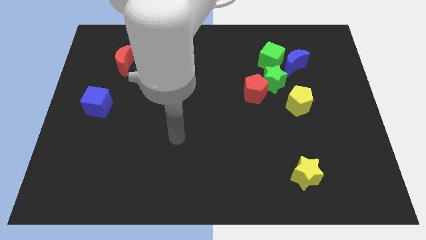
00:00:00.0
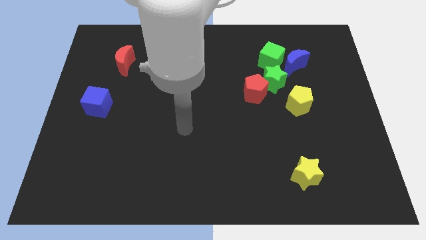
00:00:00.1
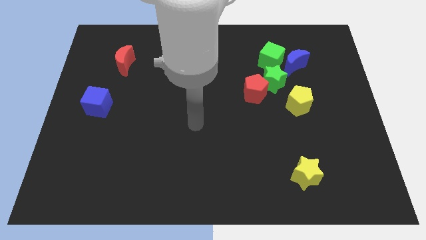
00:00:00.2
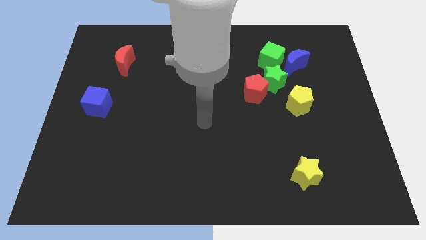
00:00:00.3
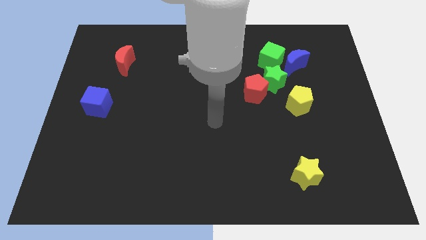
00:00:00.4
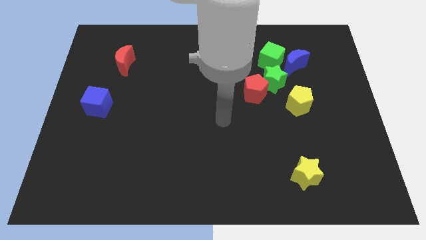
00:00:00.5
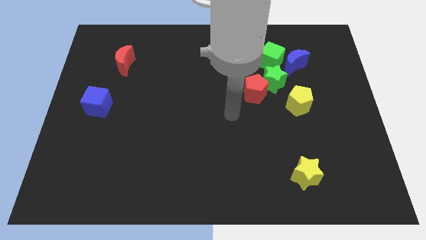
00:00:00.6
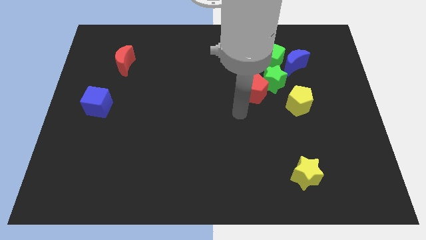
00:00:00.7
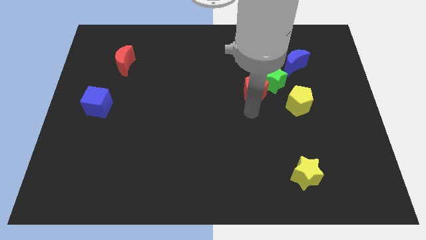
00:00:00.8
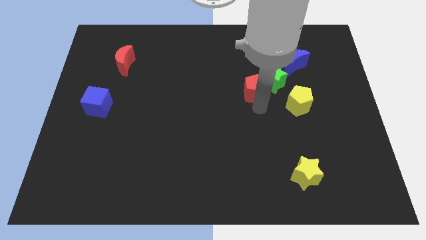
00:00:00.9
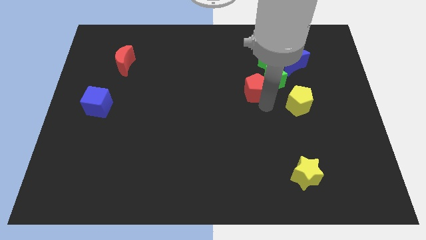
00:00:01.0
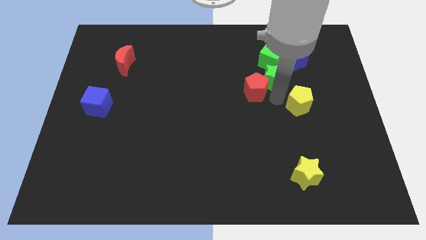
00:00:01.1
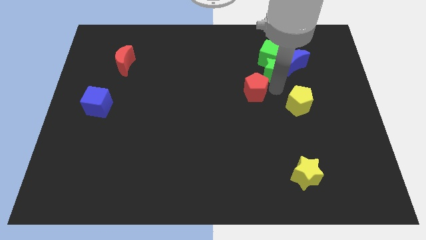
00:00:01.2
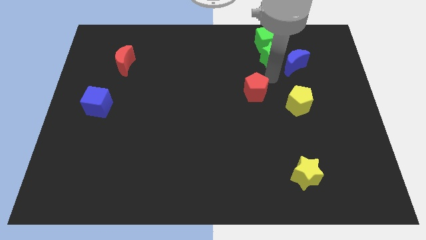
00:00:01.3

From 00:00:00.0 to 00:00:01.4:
pull the red pentagon apart from the green star

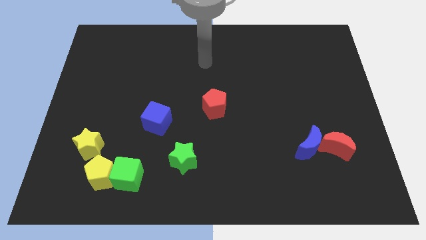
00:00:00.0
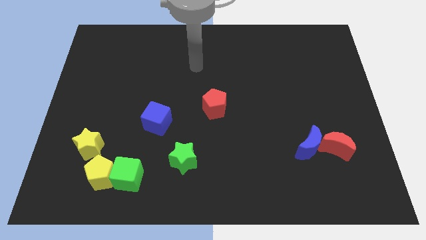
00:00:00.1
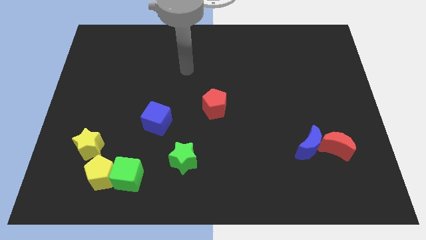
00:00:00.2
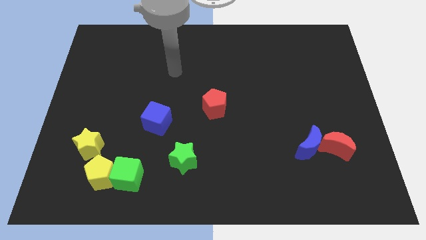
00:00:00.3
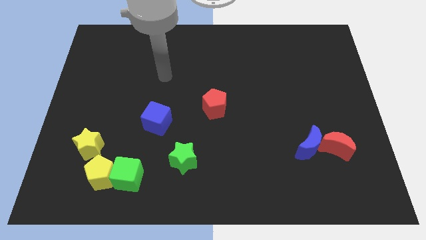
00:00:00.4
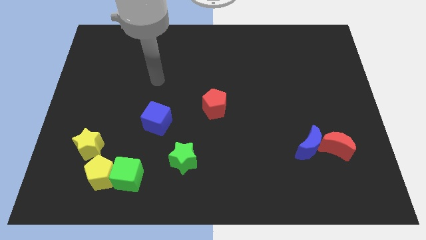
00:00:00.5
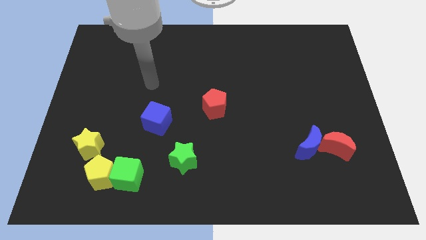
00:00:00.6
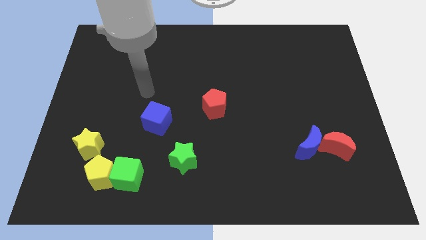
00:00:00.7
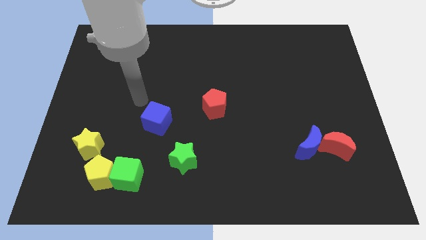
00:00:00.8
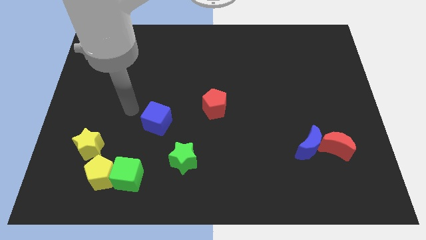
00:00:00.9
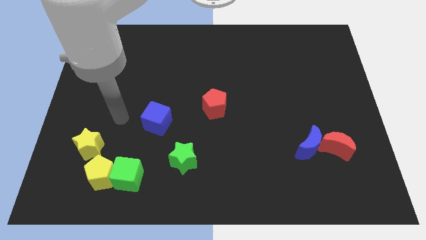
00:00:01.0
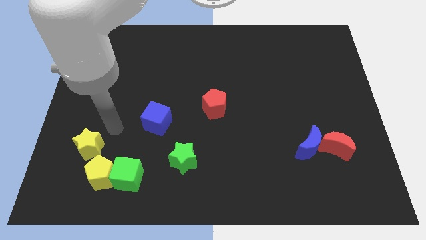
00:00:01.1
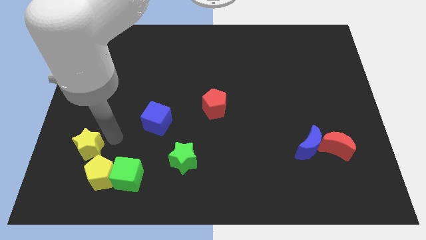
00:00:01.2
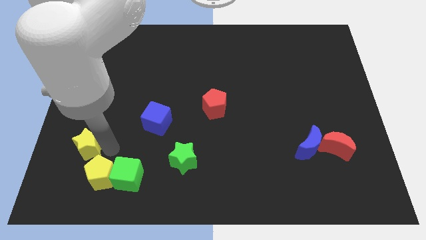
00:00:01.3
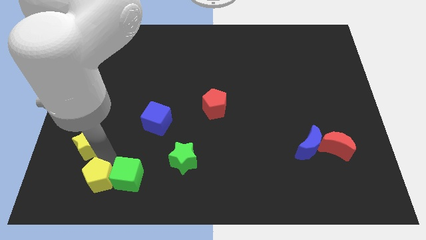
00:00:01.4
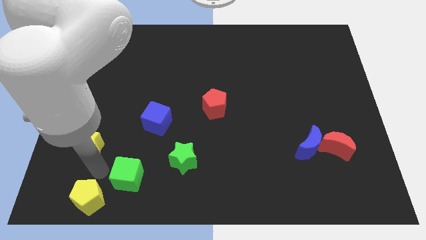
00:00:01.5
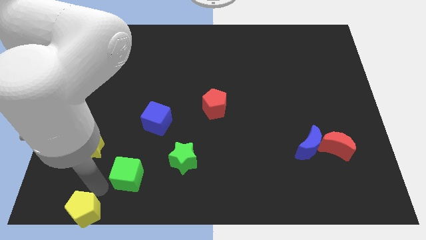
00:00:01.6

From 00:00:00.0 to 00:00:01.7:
pull the green cube apart from the yellow pentagon

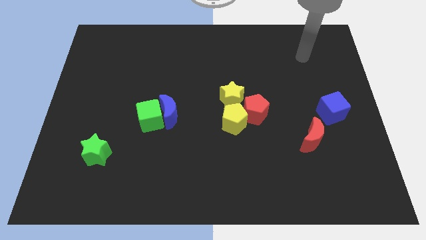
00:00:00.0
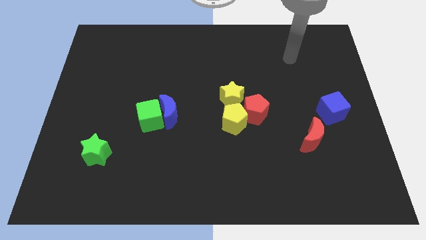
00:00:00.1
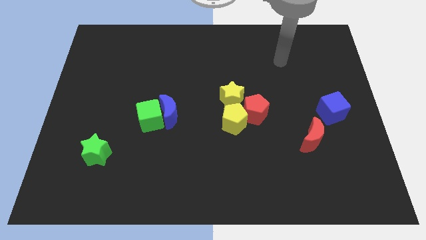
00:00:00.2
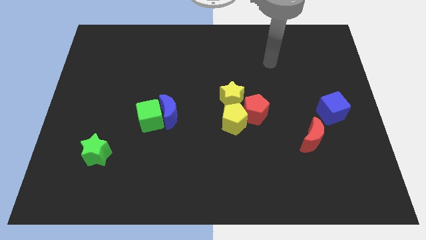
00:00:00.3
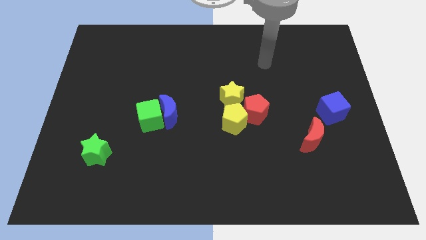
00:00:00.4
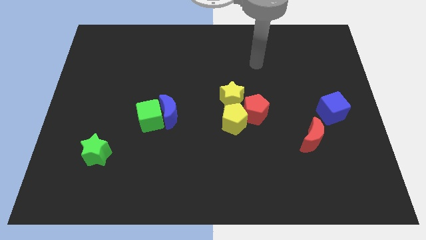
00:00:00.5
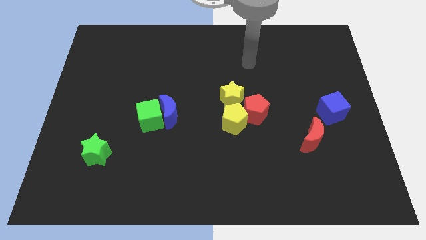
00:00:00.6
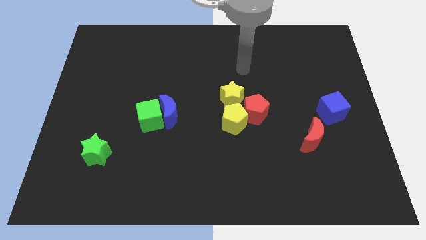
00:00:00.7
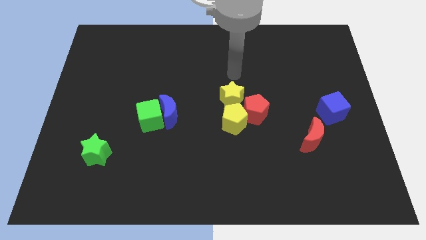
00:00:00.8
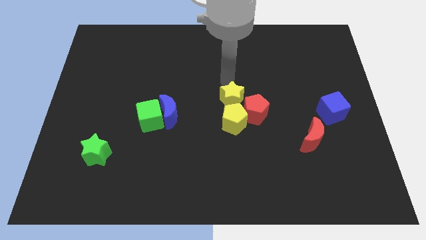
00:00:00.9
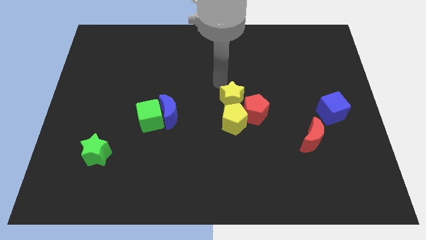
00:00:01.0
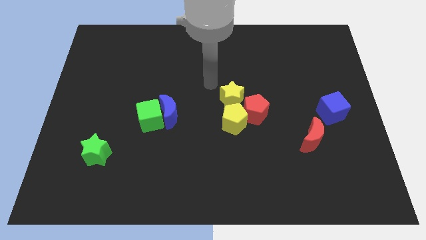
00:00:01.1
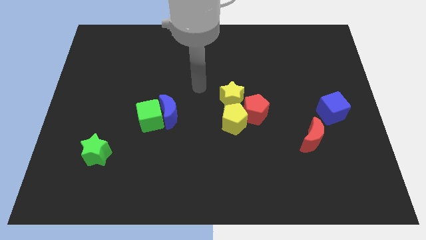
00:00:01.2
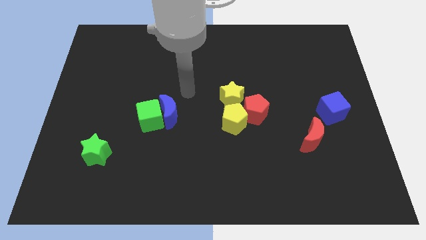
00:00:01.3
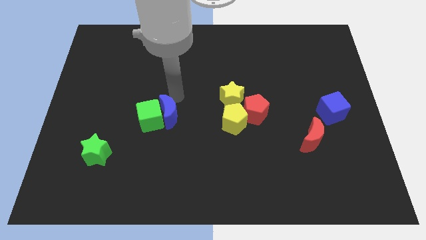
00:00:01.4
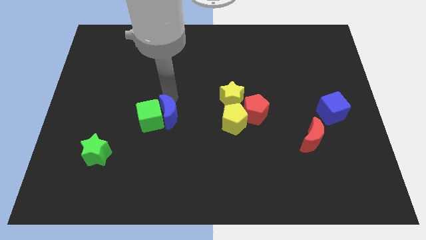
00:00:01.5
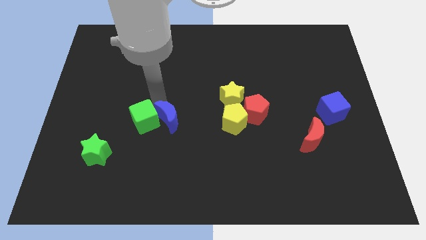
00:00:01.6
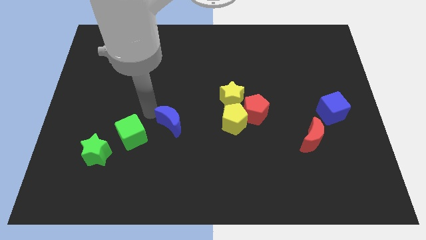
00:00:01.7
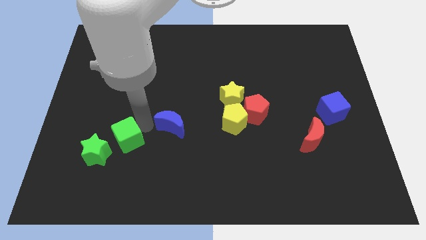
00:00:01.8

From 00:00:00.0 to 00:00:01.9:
move the blue moon away from the green cube

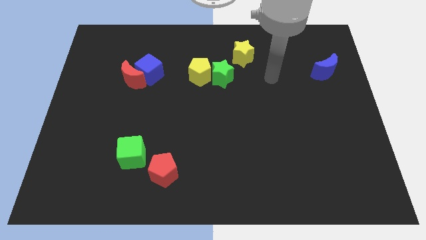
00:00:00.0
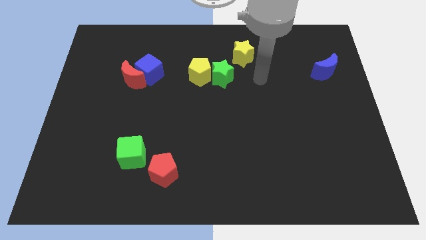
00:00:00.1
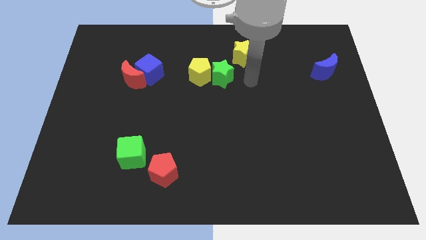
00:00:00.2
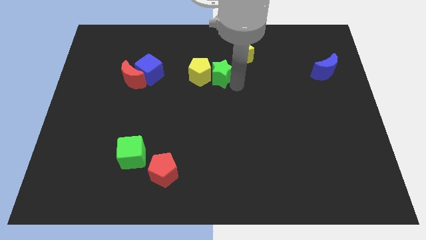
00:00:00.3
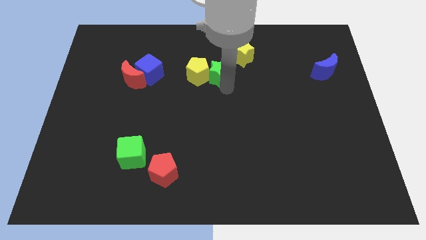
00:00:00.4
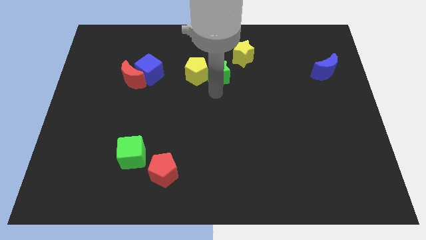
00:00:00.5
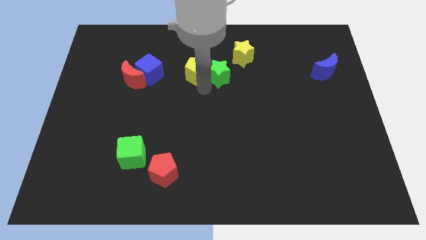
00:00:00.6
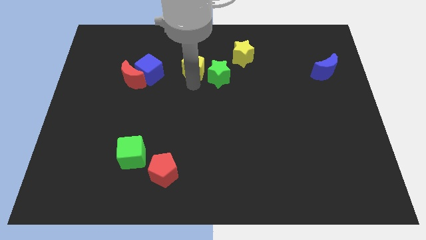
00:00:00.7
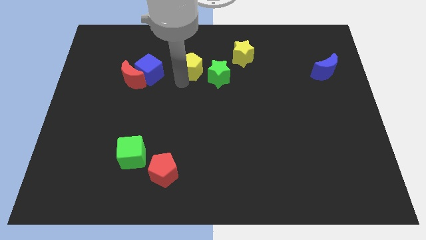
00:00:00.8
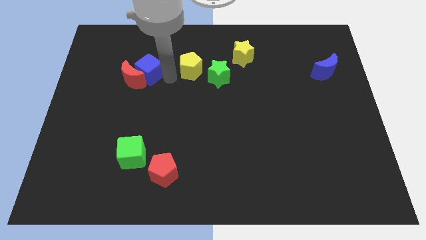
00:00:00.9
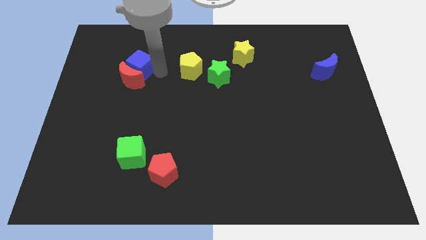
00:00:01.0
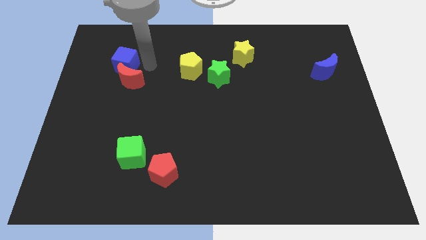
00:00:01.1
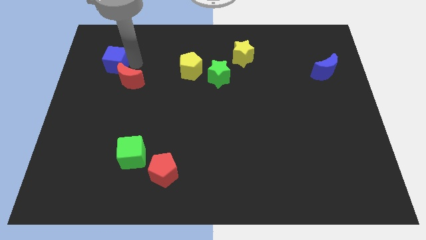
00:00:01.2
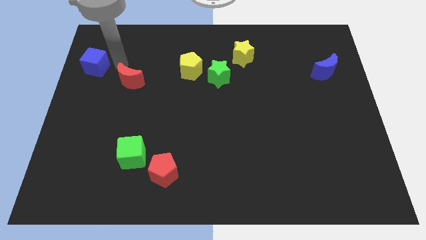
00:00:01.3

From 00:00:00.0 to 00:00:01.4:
move the red moon away from the blue cube

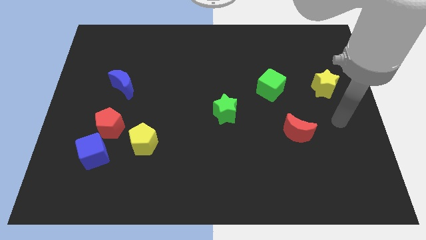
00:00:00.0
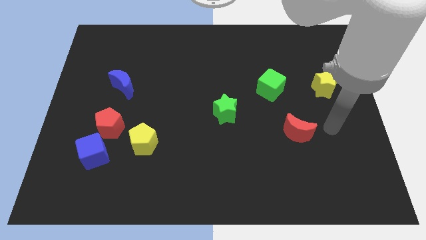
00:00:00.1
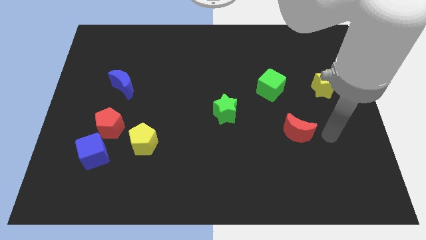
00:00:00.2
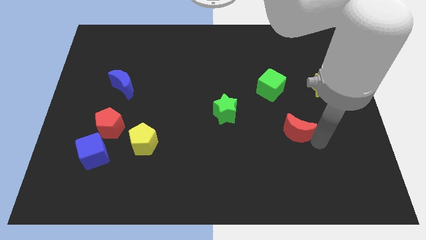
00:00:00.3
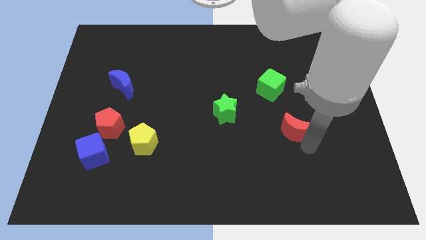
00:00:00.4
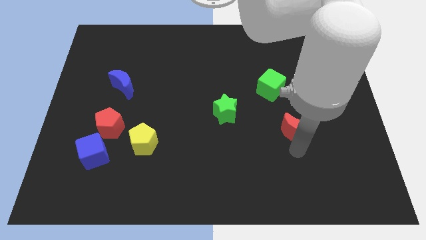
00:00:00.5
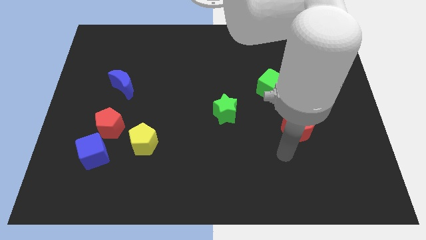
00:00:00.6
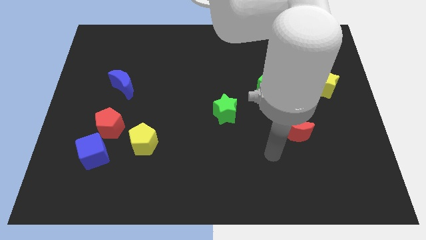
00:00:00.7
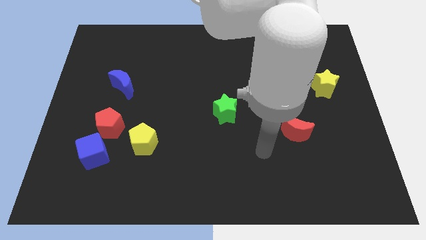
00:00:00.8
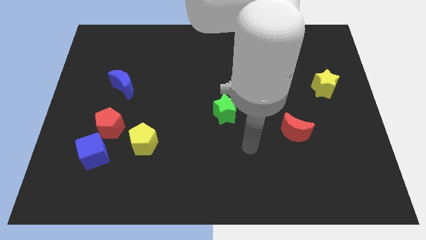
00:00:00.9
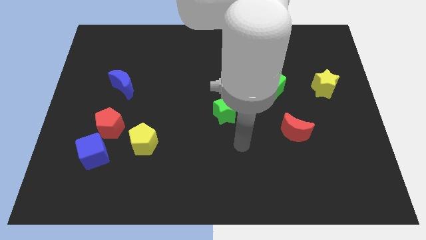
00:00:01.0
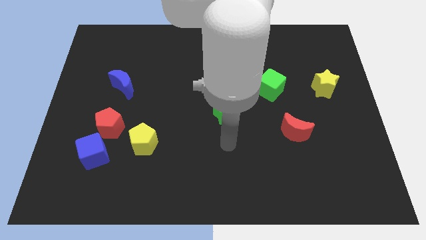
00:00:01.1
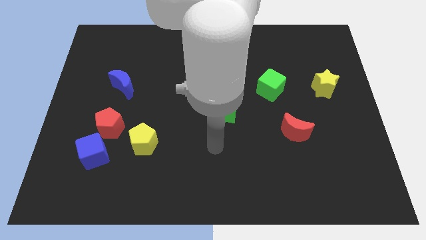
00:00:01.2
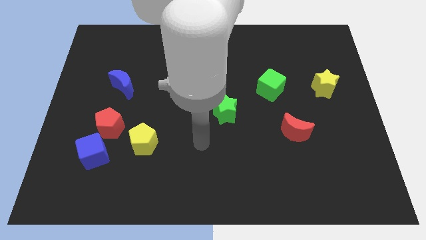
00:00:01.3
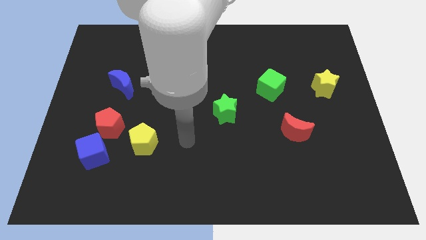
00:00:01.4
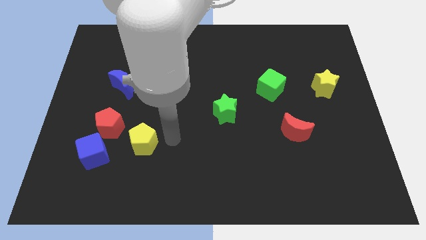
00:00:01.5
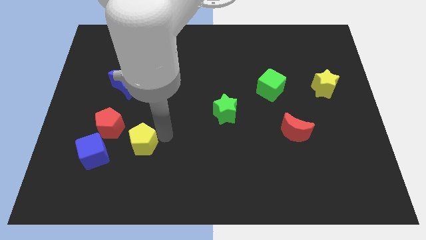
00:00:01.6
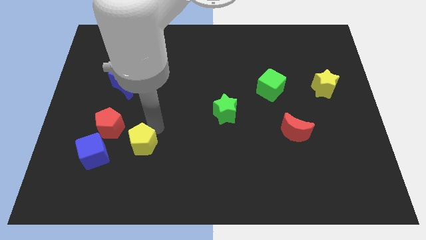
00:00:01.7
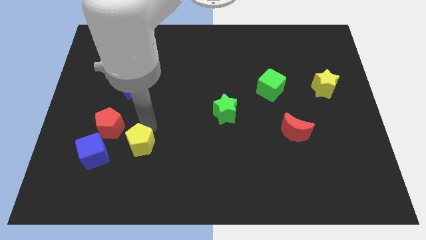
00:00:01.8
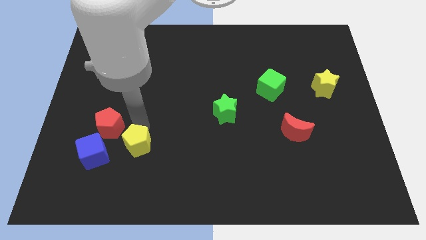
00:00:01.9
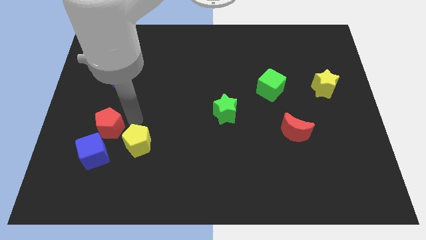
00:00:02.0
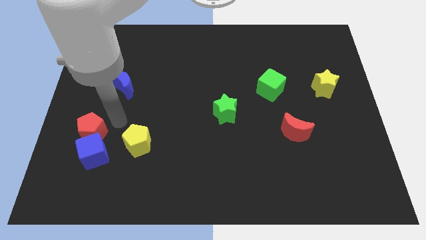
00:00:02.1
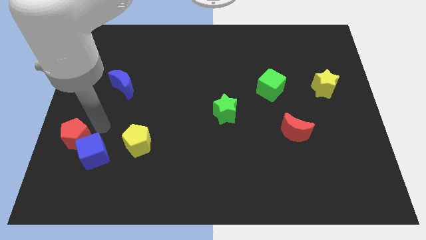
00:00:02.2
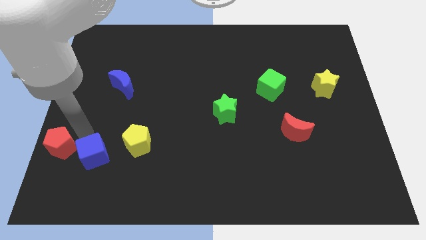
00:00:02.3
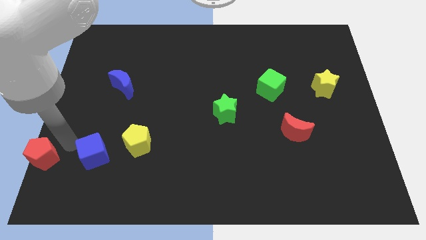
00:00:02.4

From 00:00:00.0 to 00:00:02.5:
separate the blue cube from the red pentagon

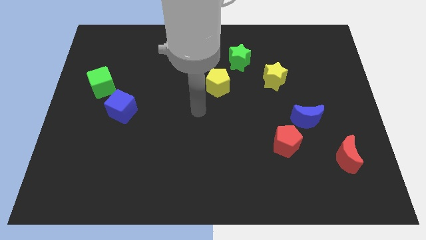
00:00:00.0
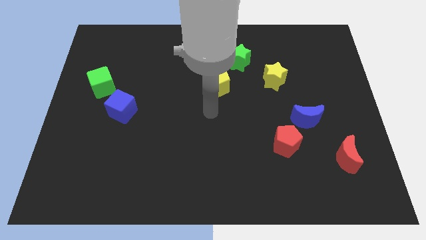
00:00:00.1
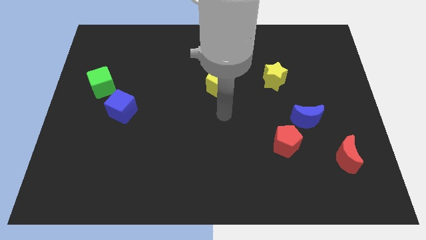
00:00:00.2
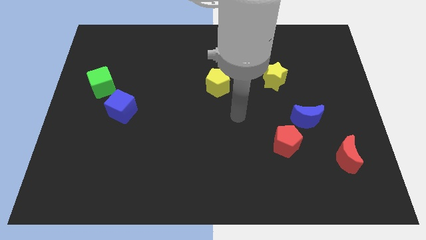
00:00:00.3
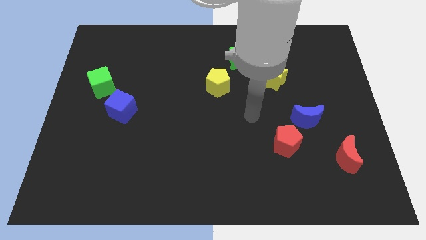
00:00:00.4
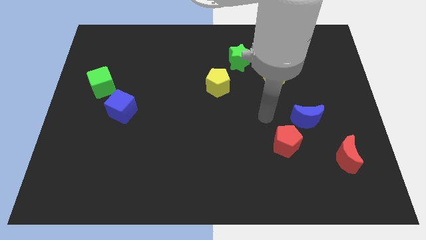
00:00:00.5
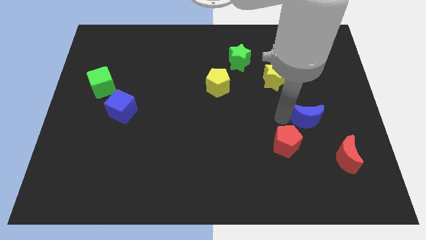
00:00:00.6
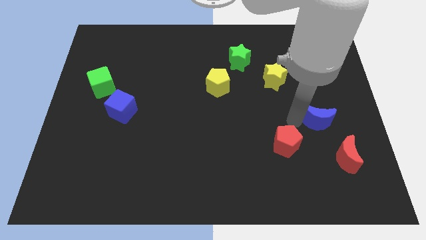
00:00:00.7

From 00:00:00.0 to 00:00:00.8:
pull the red pentagon apart from the blue moon
